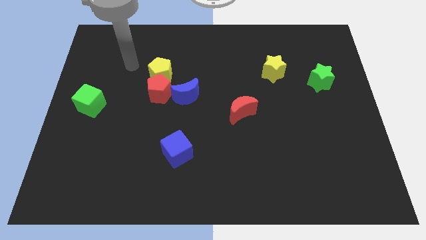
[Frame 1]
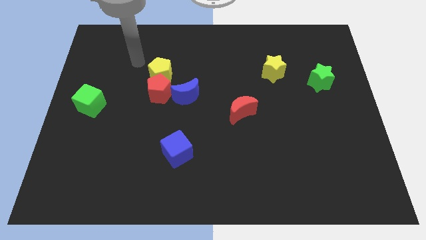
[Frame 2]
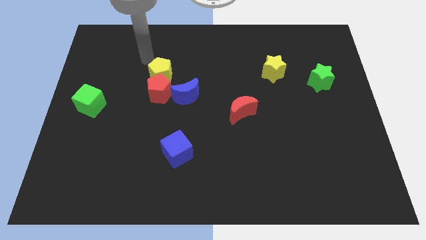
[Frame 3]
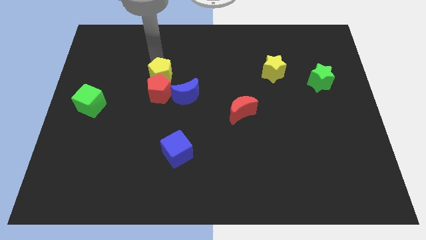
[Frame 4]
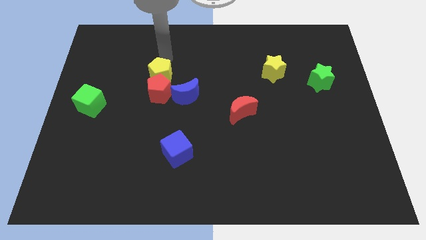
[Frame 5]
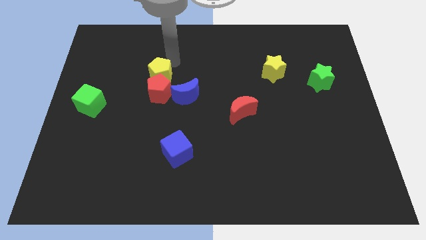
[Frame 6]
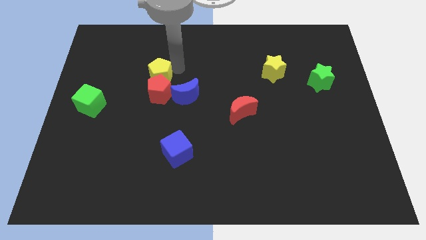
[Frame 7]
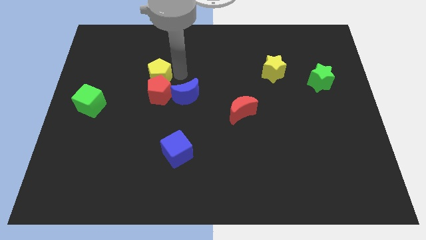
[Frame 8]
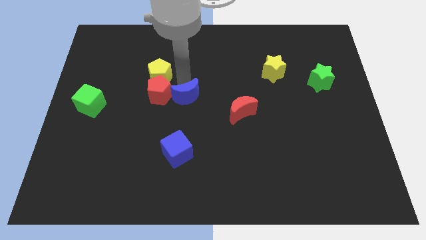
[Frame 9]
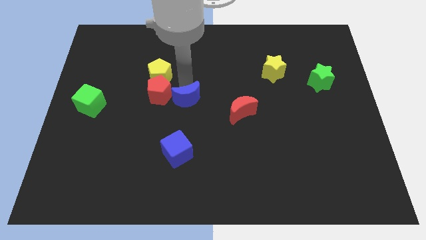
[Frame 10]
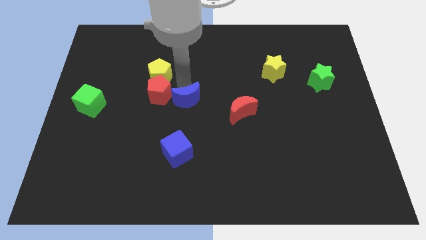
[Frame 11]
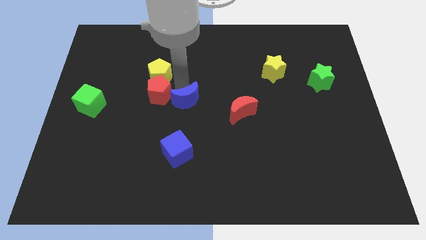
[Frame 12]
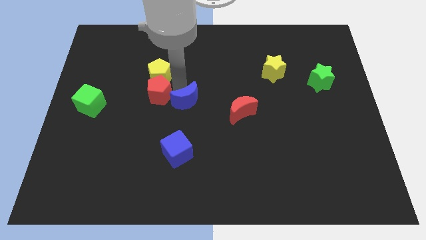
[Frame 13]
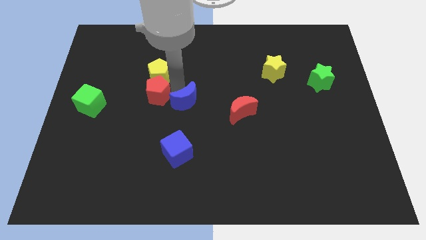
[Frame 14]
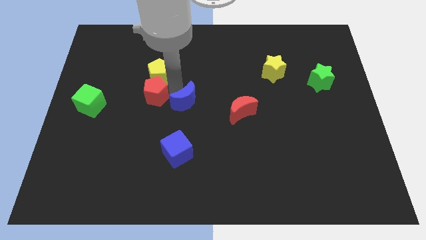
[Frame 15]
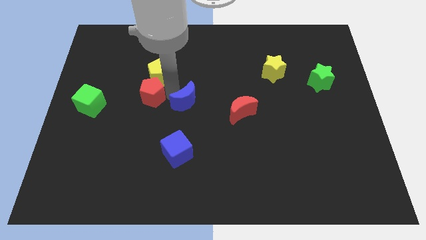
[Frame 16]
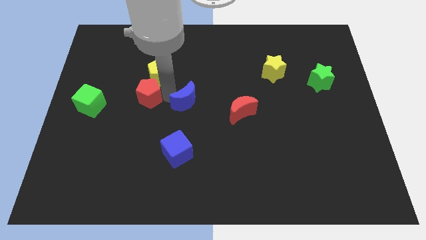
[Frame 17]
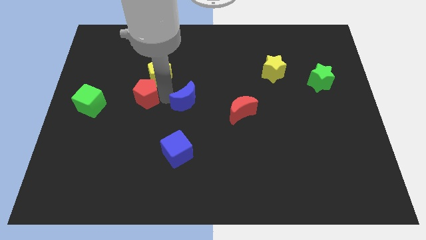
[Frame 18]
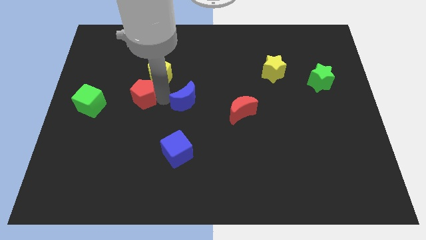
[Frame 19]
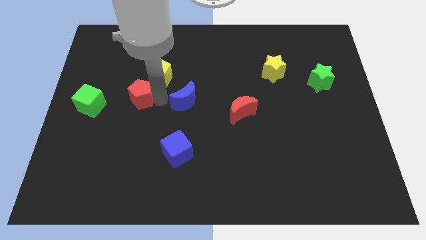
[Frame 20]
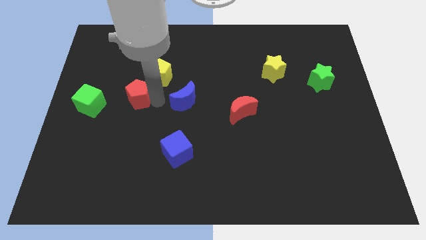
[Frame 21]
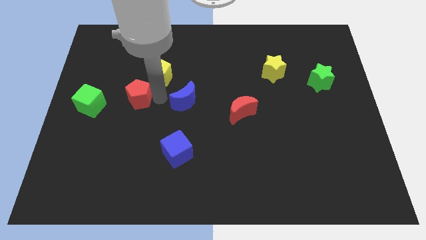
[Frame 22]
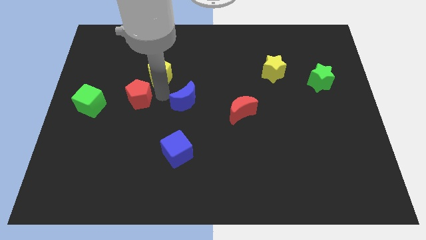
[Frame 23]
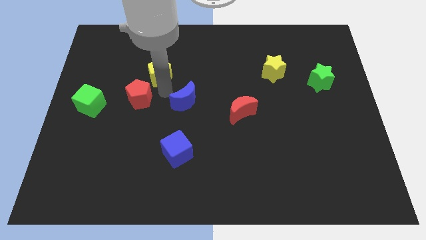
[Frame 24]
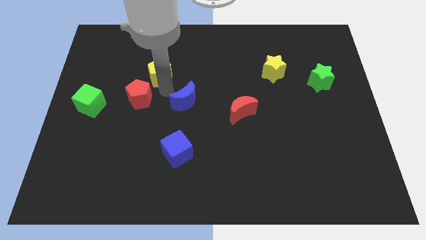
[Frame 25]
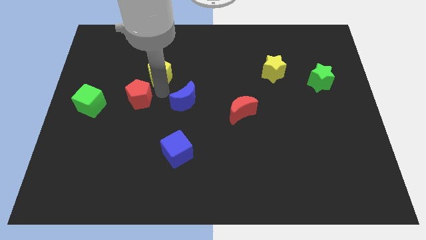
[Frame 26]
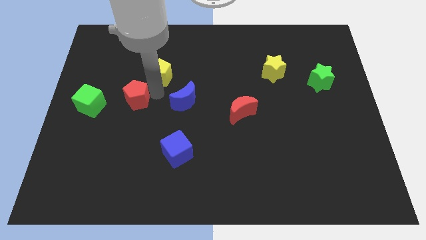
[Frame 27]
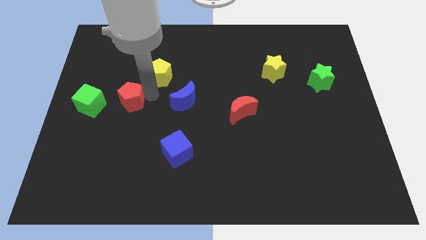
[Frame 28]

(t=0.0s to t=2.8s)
pull the red pentagon apart from the yellow pentagon and blue moon

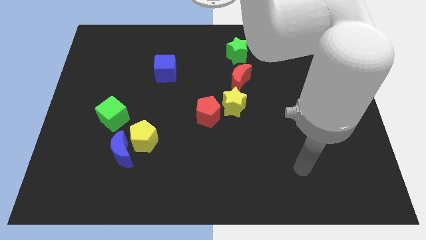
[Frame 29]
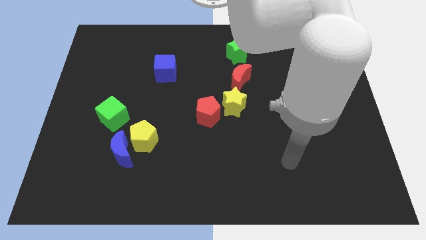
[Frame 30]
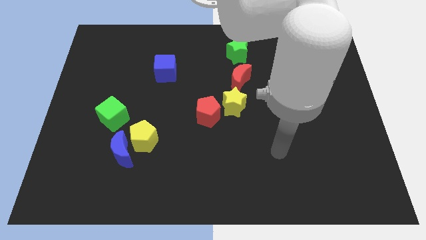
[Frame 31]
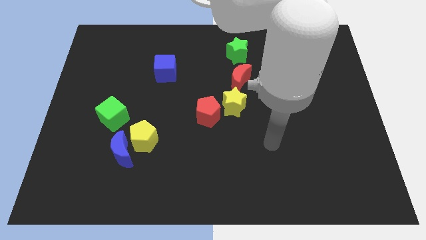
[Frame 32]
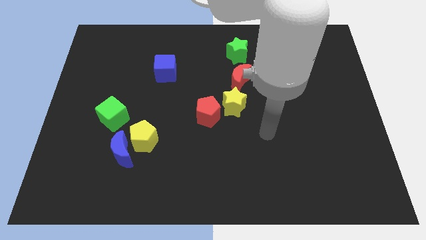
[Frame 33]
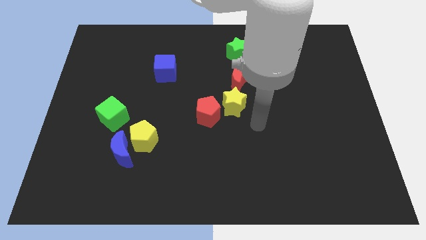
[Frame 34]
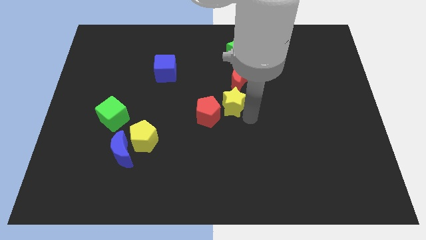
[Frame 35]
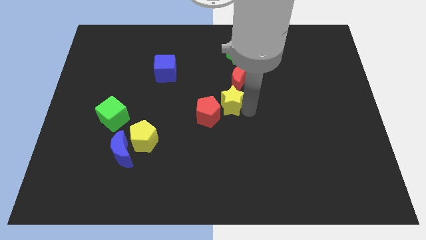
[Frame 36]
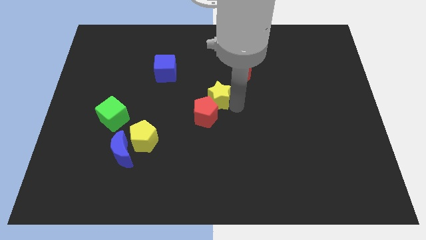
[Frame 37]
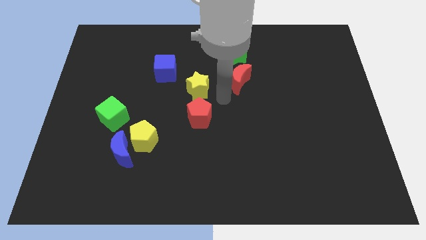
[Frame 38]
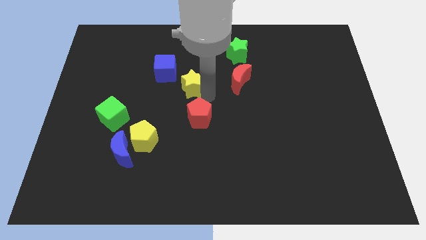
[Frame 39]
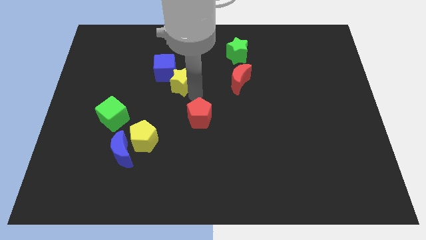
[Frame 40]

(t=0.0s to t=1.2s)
move the red pentagon away from the yellow star

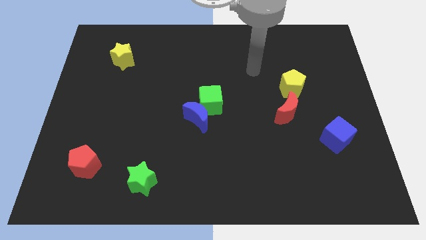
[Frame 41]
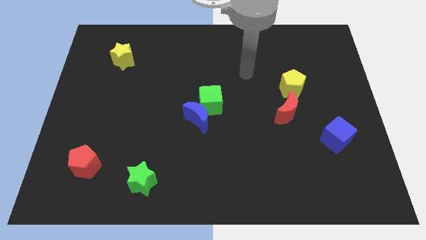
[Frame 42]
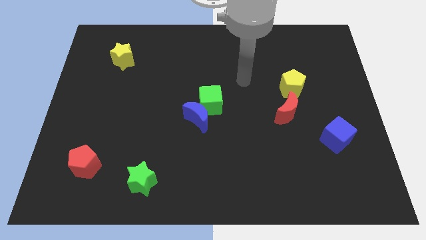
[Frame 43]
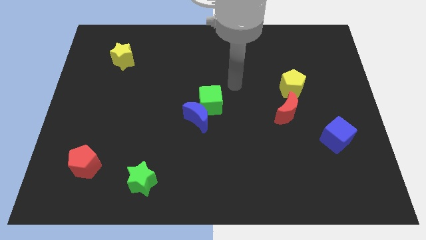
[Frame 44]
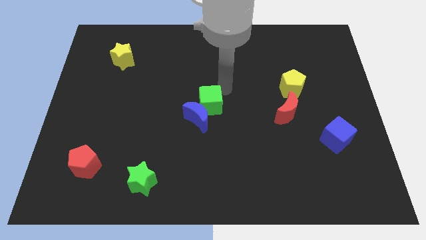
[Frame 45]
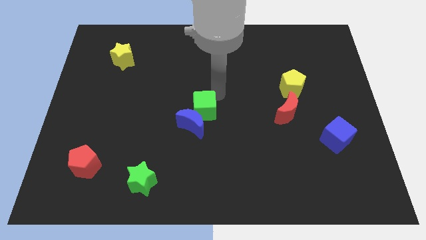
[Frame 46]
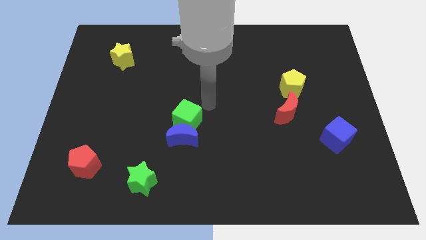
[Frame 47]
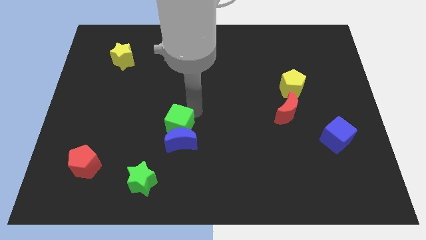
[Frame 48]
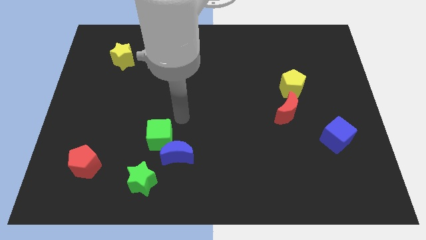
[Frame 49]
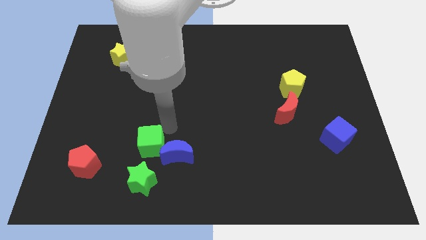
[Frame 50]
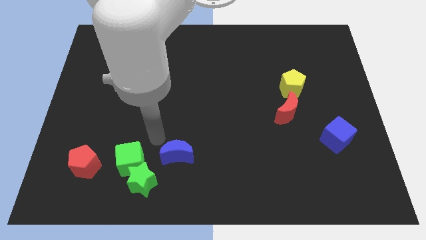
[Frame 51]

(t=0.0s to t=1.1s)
separate the blue moon from the green cube

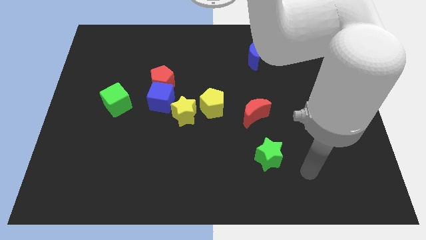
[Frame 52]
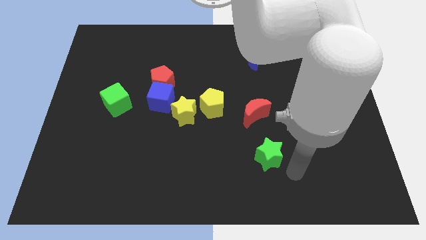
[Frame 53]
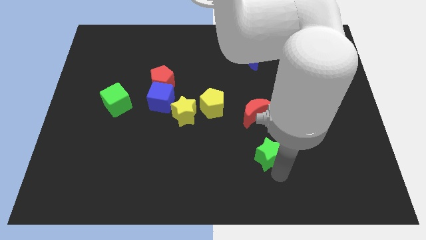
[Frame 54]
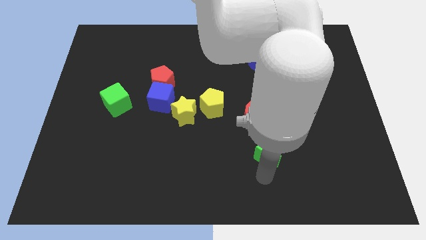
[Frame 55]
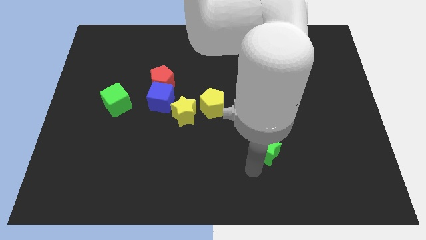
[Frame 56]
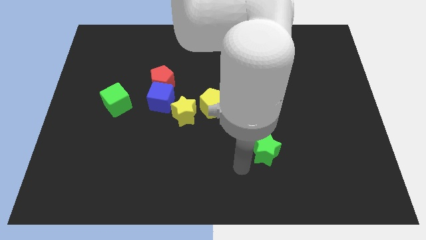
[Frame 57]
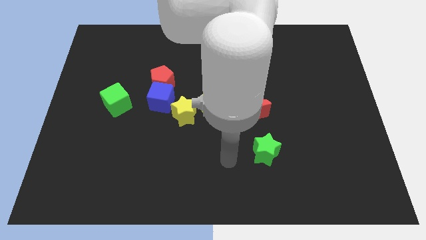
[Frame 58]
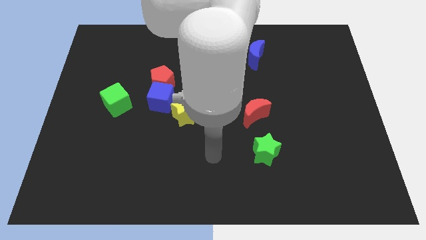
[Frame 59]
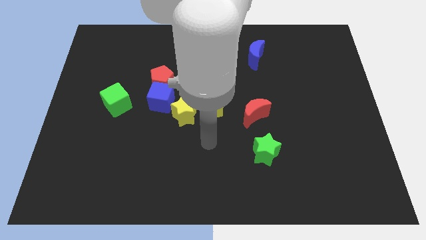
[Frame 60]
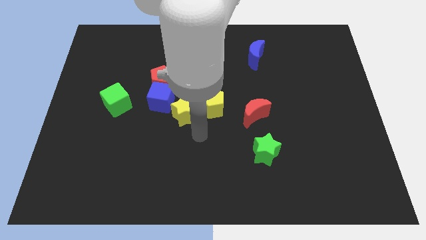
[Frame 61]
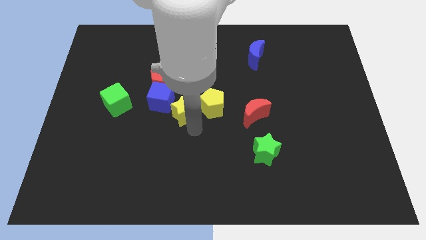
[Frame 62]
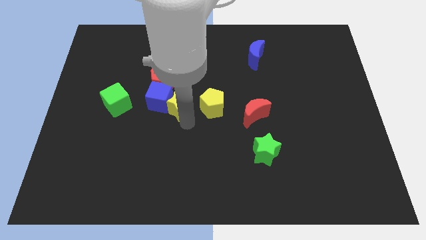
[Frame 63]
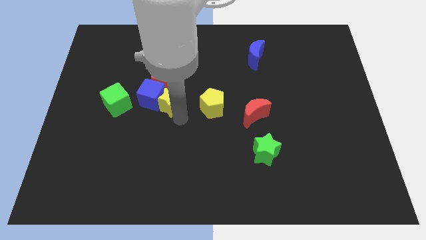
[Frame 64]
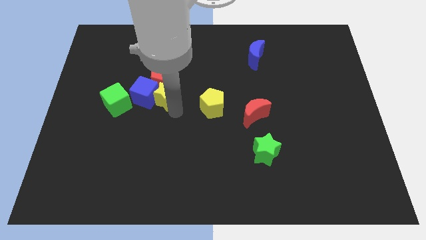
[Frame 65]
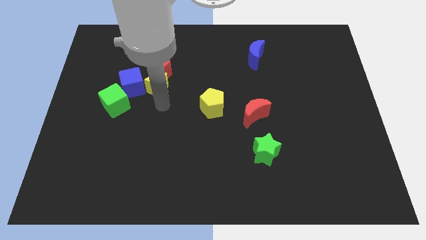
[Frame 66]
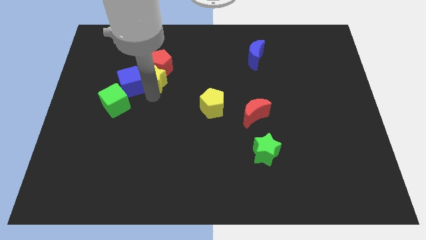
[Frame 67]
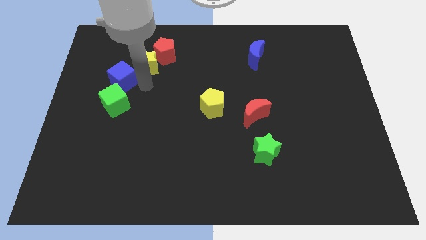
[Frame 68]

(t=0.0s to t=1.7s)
separate the red pentagon from the blue cube

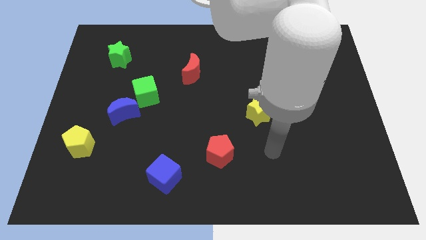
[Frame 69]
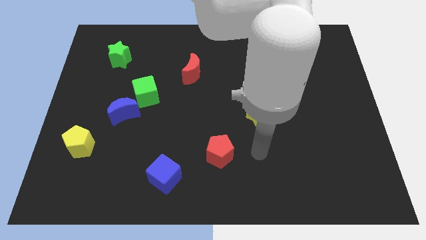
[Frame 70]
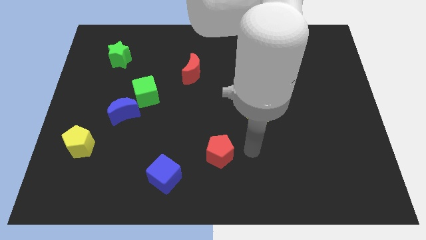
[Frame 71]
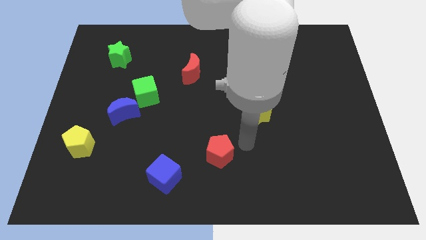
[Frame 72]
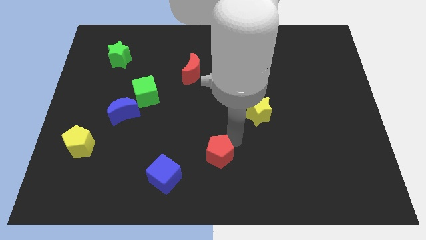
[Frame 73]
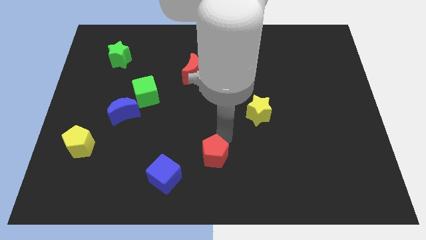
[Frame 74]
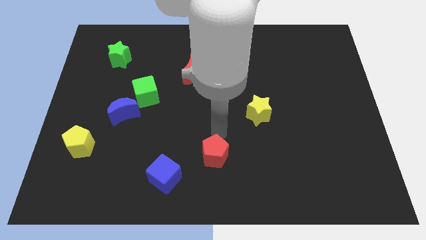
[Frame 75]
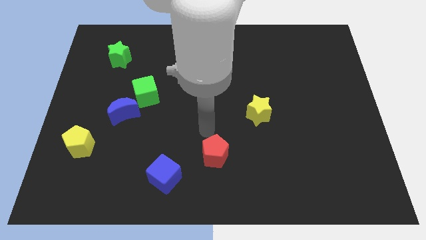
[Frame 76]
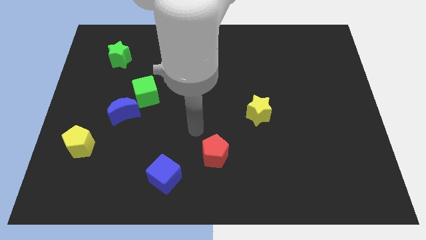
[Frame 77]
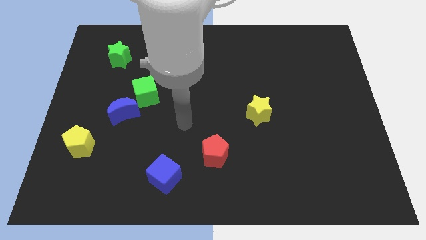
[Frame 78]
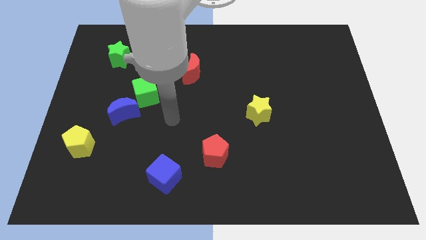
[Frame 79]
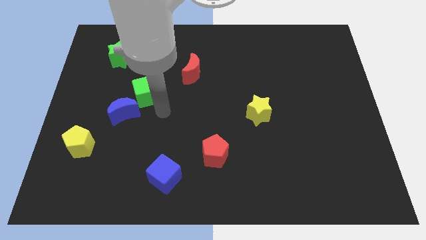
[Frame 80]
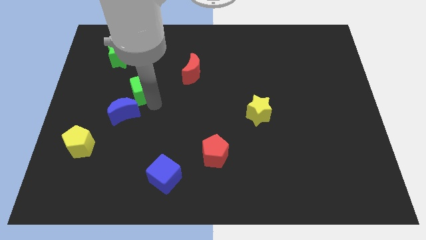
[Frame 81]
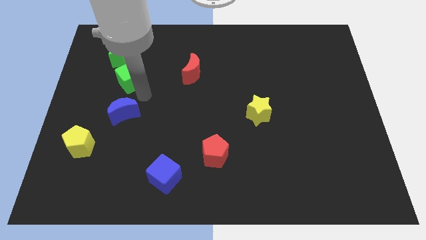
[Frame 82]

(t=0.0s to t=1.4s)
move the blue moon away from the green cube

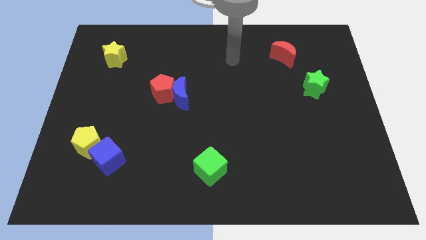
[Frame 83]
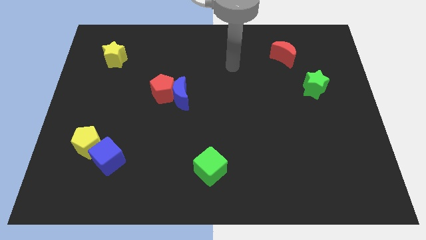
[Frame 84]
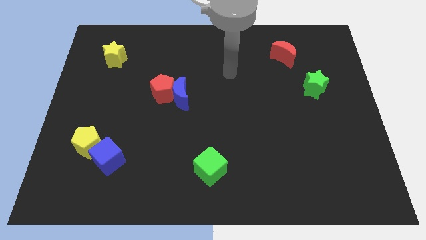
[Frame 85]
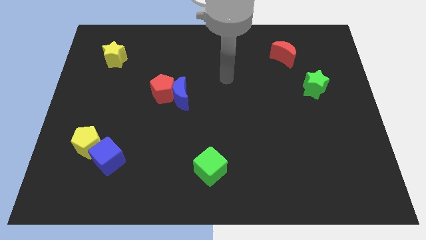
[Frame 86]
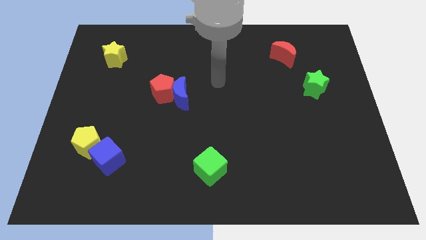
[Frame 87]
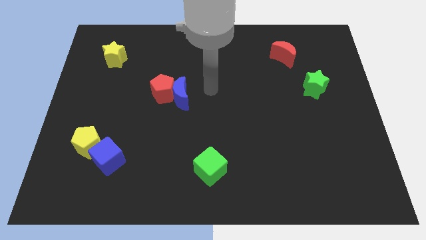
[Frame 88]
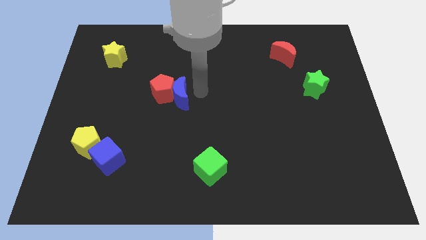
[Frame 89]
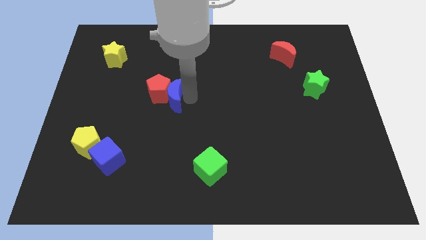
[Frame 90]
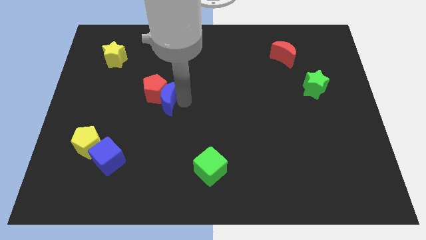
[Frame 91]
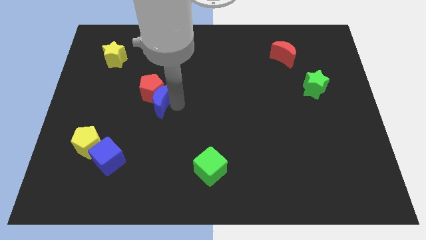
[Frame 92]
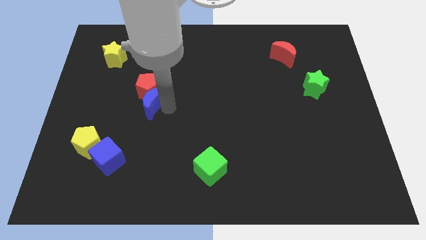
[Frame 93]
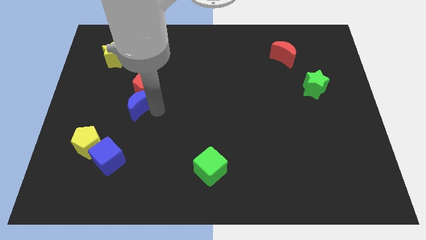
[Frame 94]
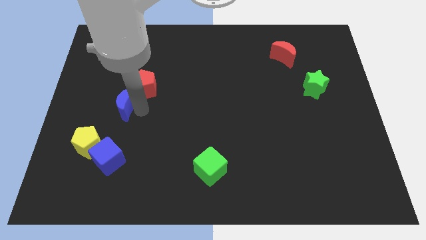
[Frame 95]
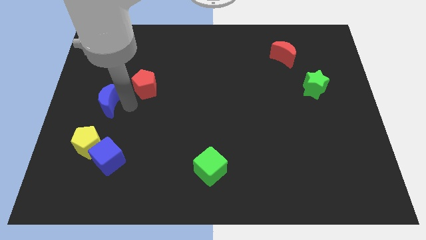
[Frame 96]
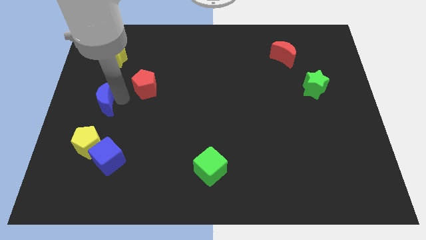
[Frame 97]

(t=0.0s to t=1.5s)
move the red pentagon away from the blue moon
